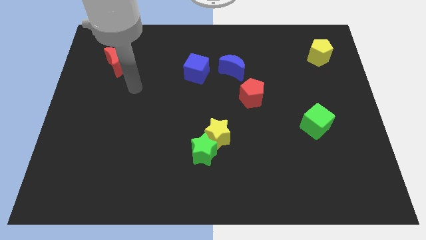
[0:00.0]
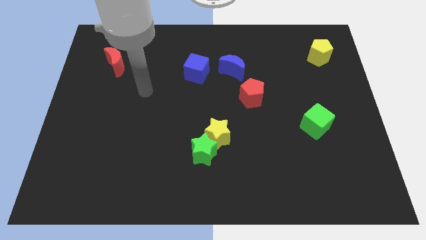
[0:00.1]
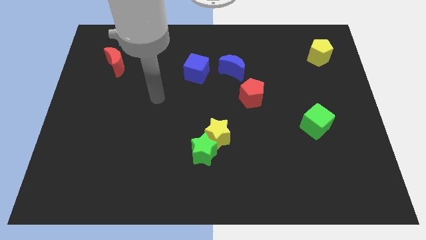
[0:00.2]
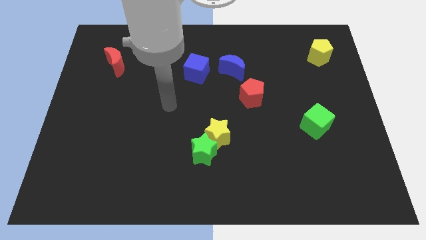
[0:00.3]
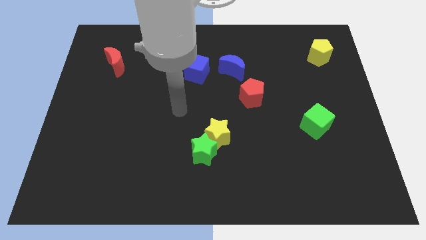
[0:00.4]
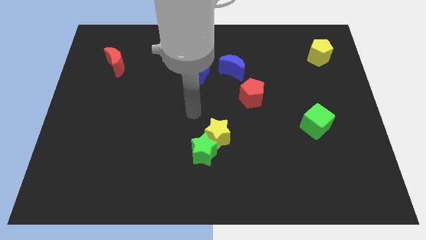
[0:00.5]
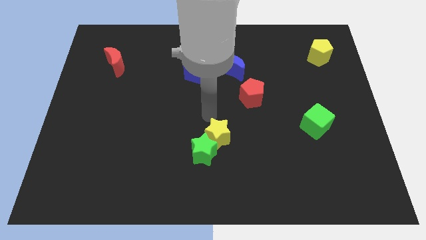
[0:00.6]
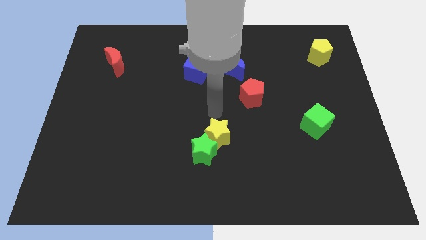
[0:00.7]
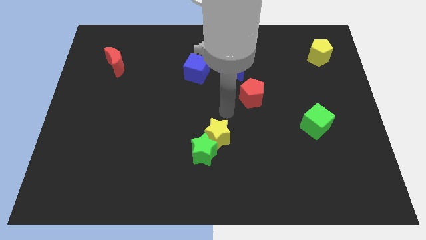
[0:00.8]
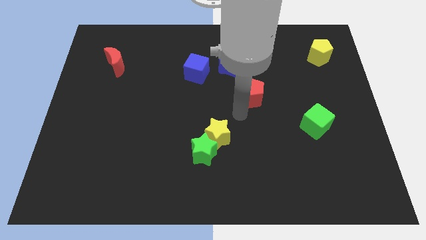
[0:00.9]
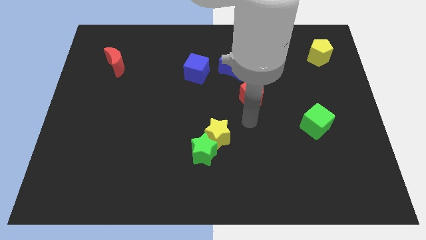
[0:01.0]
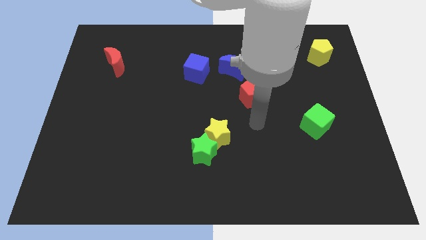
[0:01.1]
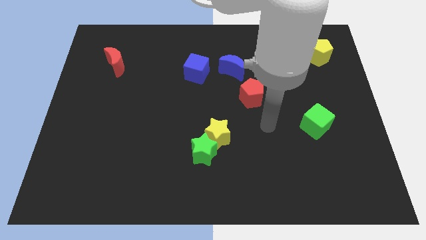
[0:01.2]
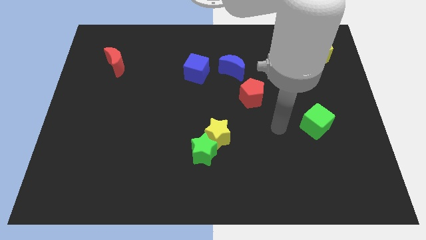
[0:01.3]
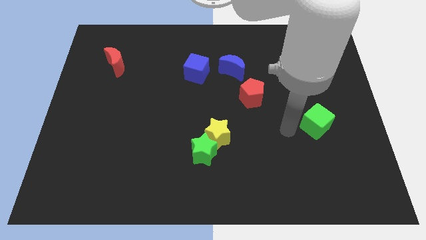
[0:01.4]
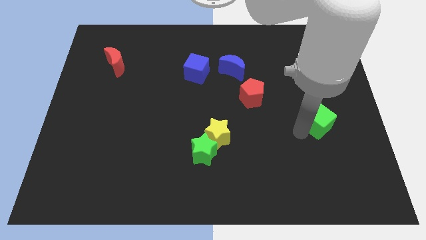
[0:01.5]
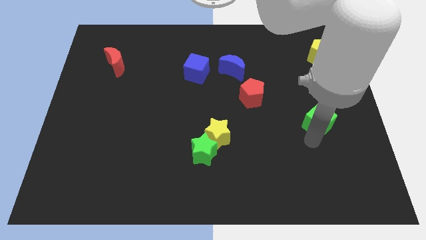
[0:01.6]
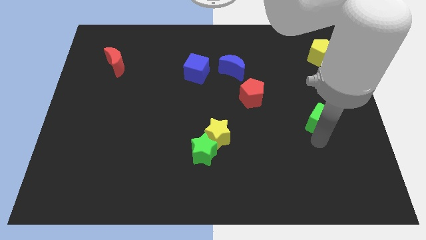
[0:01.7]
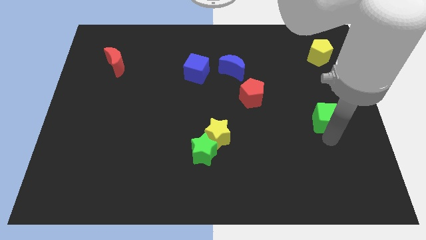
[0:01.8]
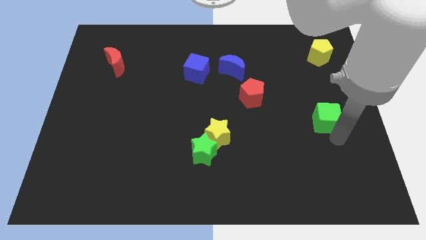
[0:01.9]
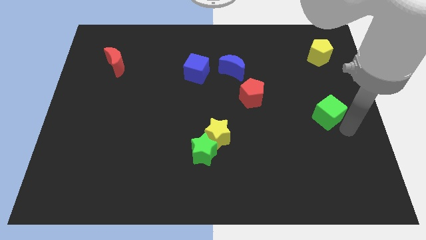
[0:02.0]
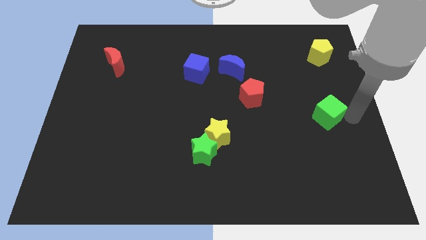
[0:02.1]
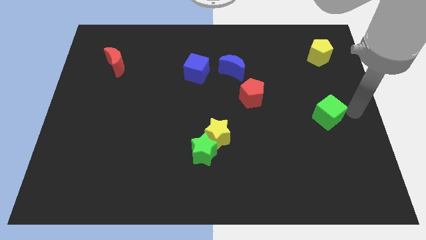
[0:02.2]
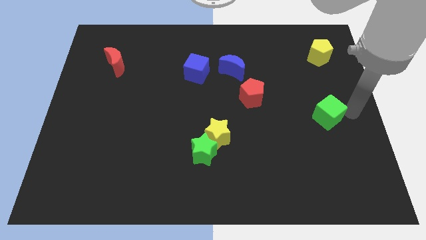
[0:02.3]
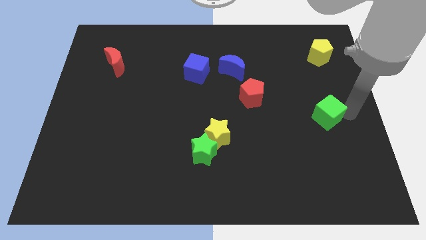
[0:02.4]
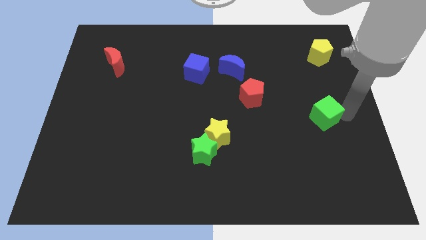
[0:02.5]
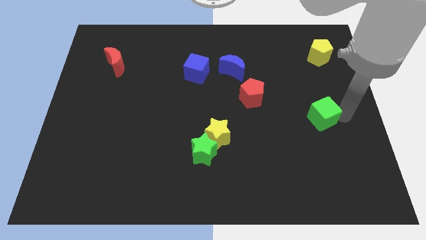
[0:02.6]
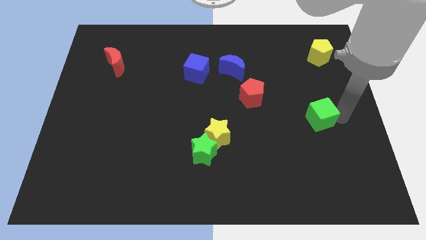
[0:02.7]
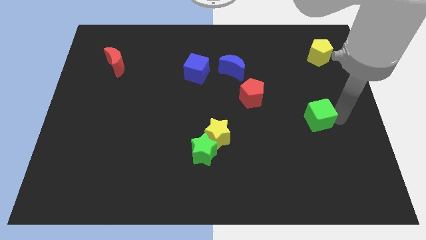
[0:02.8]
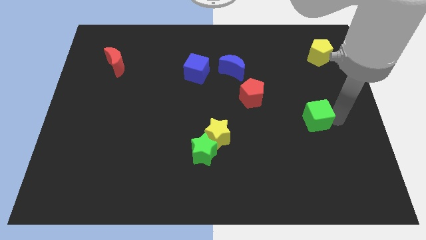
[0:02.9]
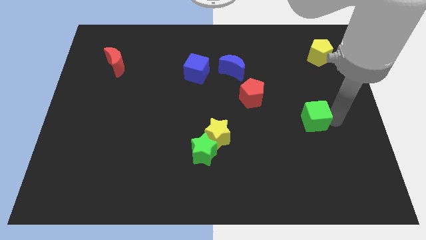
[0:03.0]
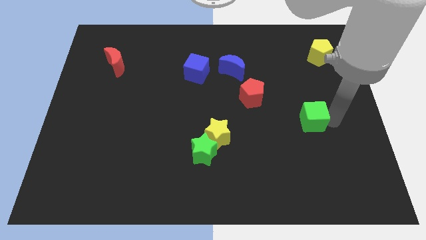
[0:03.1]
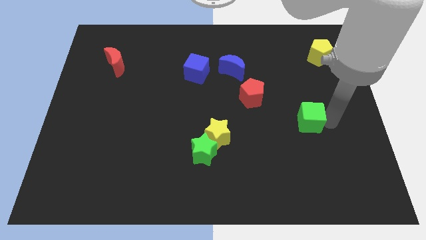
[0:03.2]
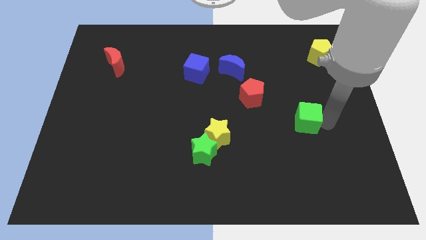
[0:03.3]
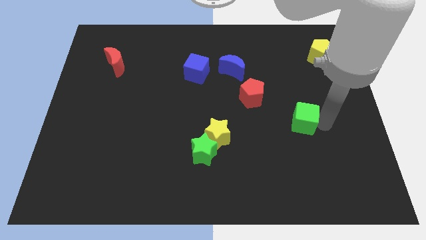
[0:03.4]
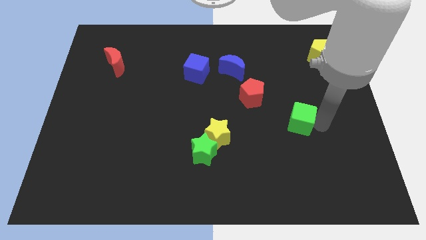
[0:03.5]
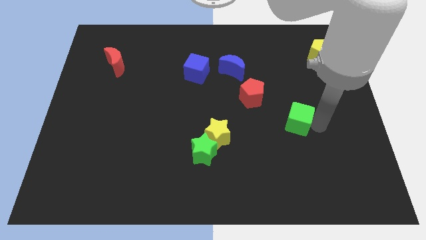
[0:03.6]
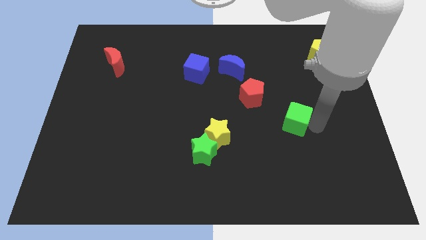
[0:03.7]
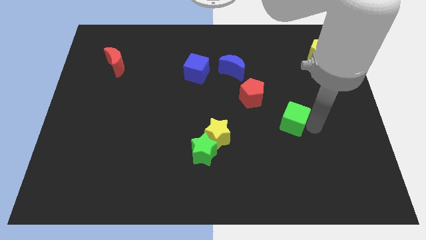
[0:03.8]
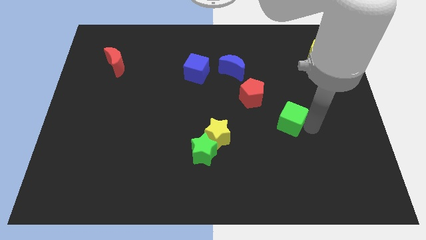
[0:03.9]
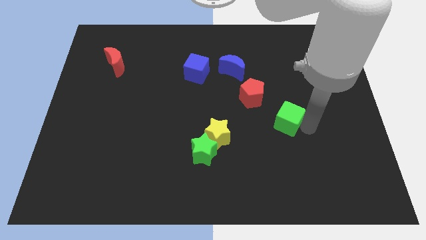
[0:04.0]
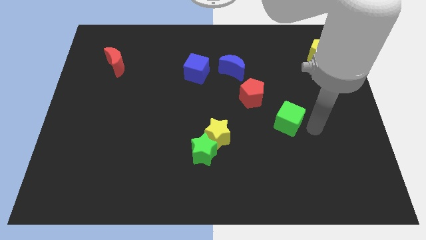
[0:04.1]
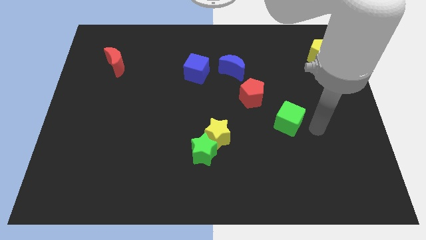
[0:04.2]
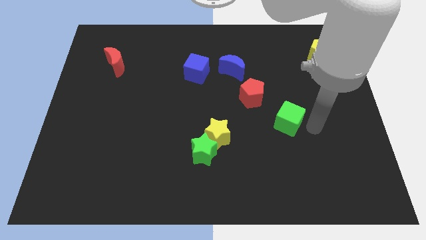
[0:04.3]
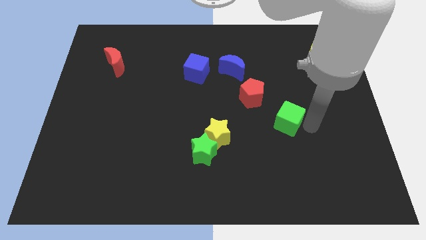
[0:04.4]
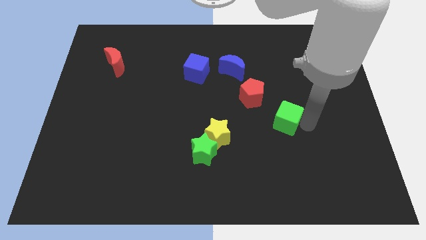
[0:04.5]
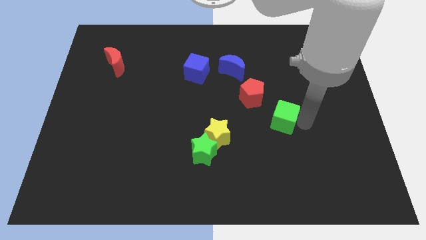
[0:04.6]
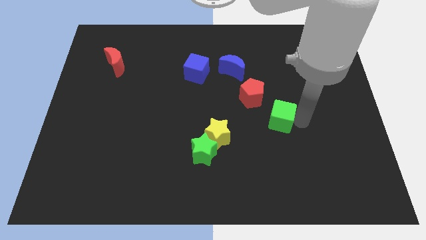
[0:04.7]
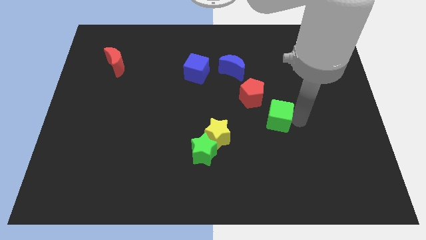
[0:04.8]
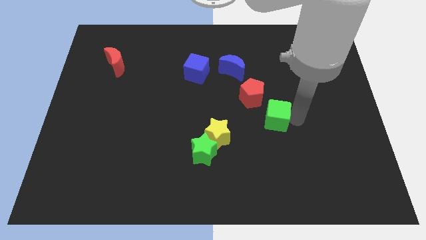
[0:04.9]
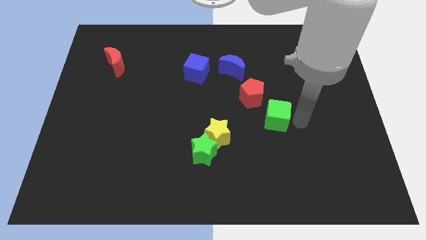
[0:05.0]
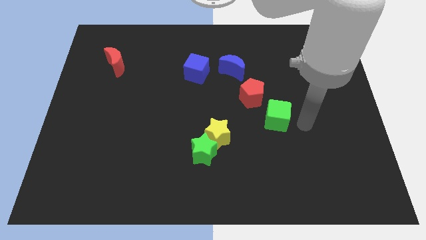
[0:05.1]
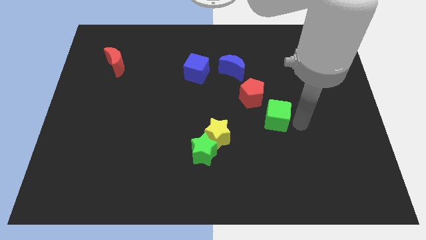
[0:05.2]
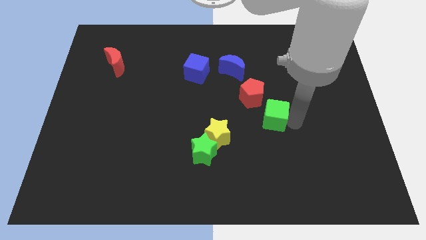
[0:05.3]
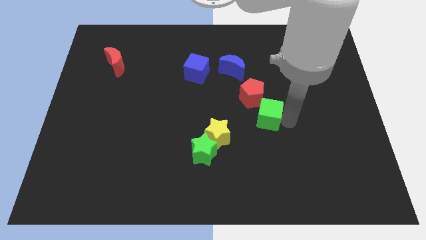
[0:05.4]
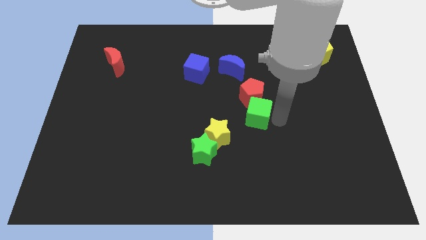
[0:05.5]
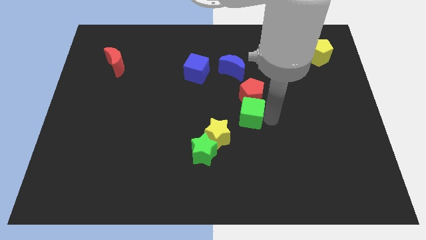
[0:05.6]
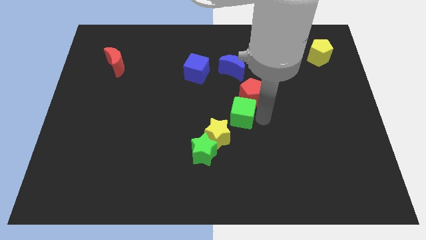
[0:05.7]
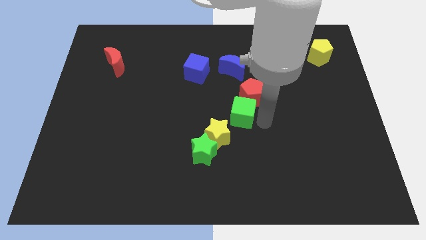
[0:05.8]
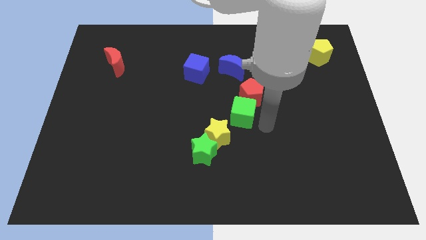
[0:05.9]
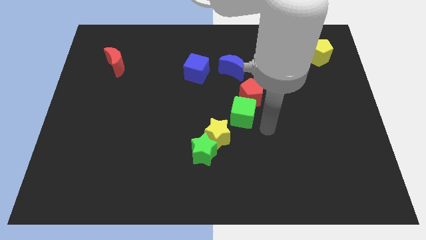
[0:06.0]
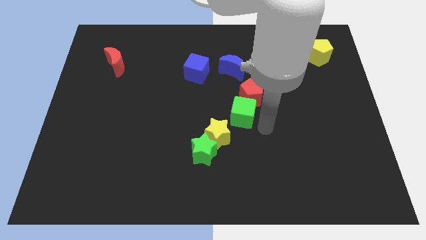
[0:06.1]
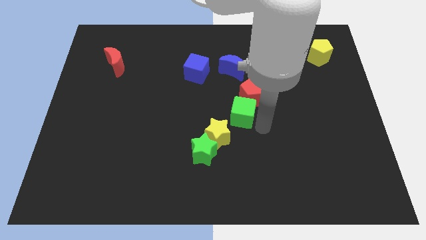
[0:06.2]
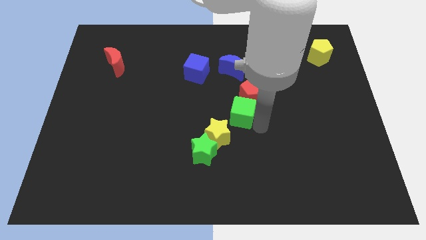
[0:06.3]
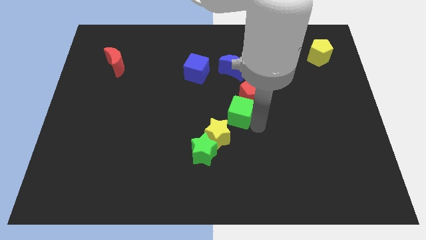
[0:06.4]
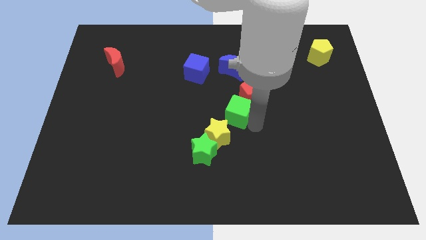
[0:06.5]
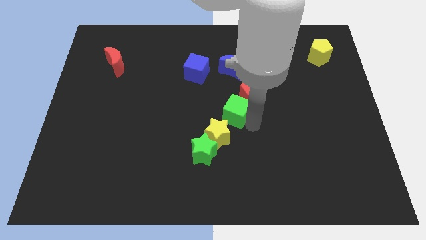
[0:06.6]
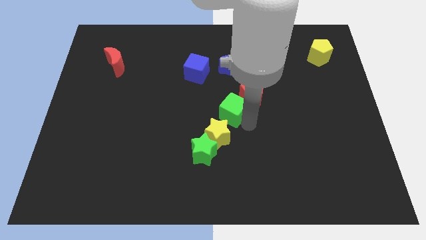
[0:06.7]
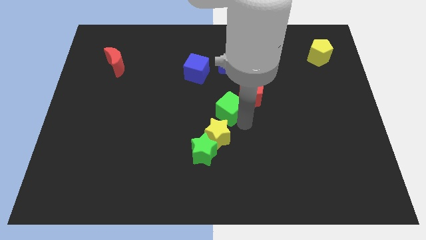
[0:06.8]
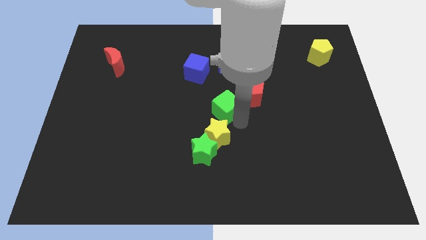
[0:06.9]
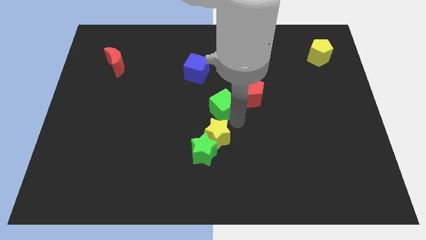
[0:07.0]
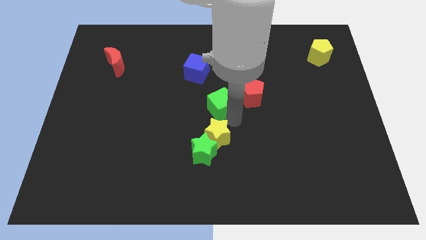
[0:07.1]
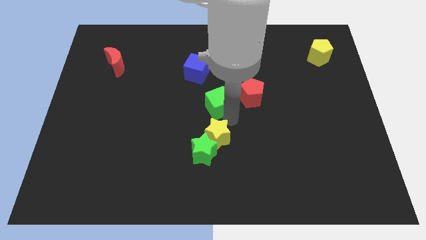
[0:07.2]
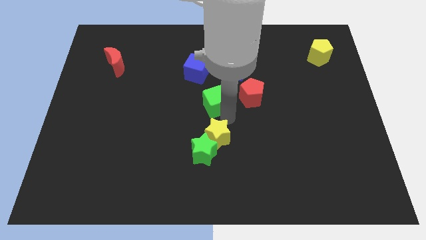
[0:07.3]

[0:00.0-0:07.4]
move the green cube to the bottom right side of the blue cube
